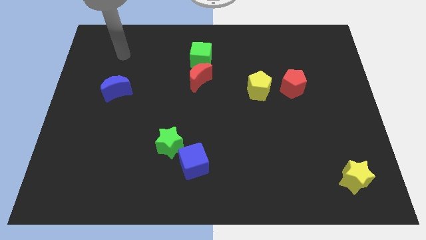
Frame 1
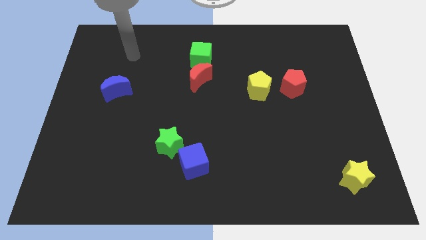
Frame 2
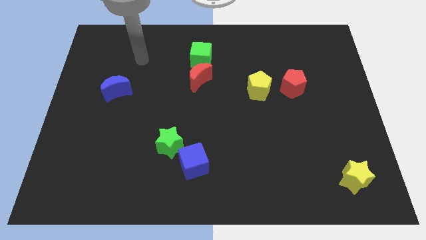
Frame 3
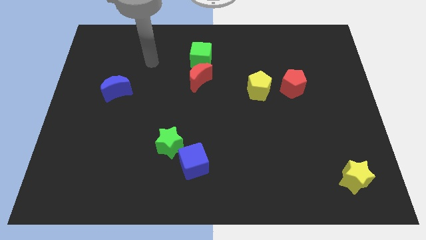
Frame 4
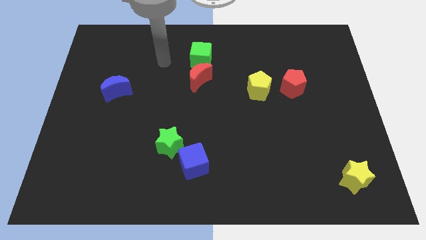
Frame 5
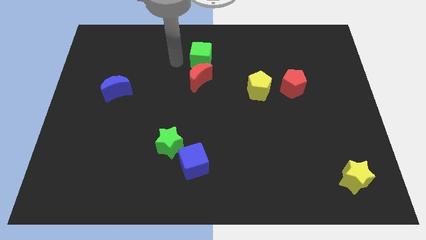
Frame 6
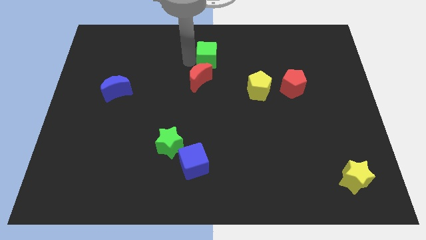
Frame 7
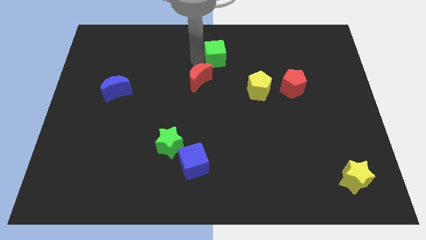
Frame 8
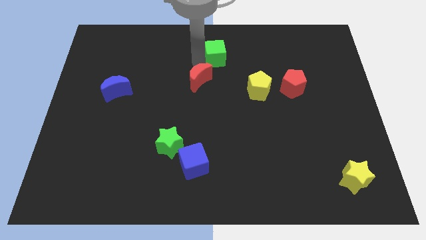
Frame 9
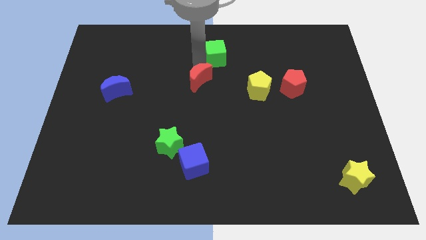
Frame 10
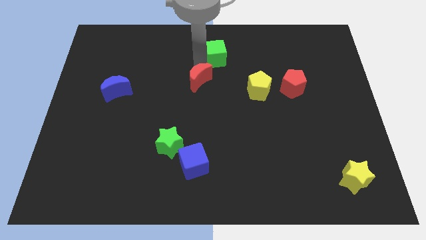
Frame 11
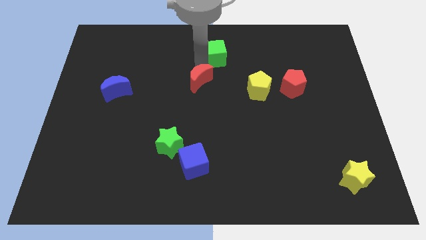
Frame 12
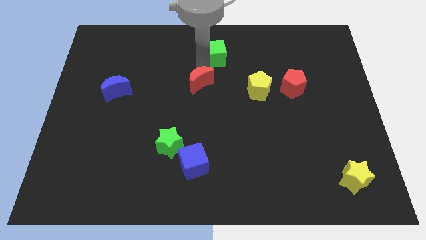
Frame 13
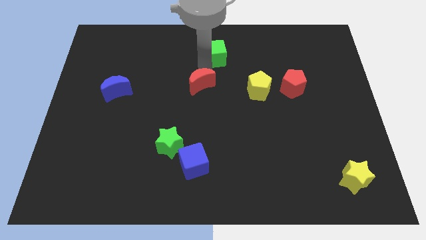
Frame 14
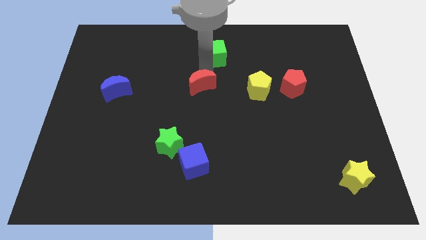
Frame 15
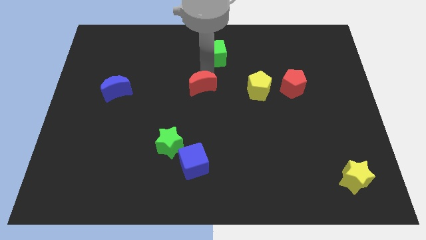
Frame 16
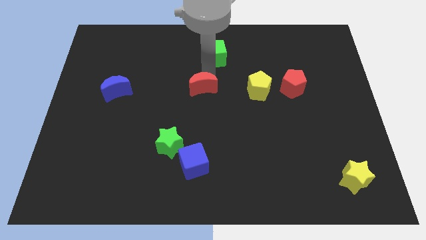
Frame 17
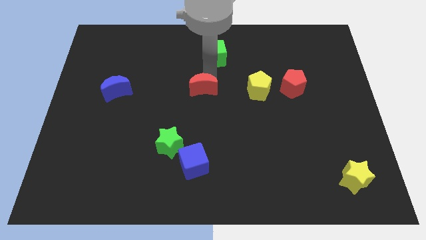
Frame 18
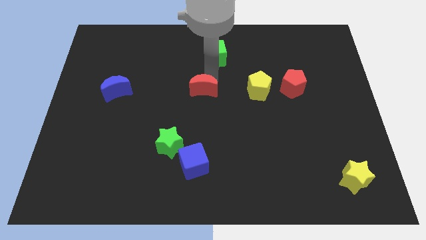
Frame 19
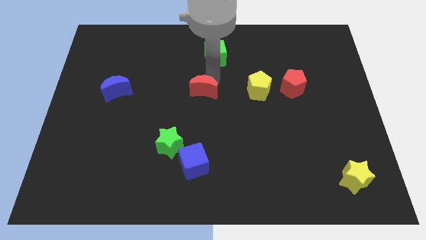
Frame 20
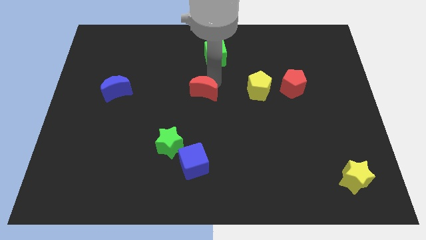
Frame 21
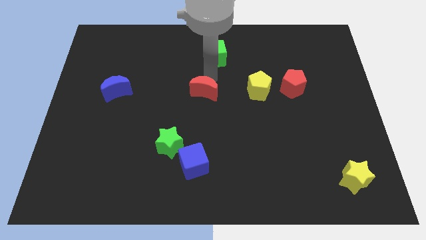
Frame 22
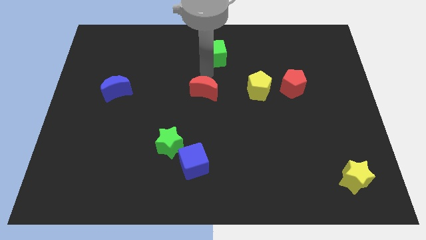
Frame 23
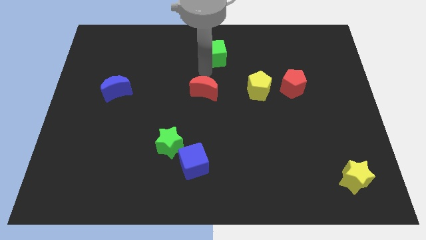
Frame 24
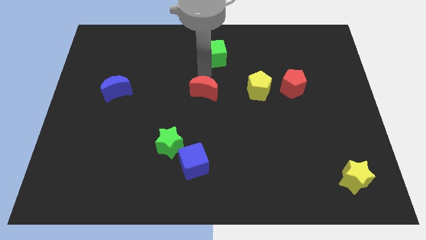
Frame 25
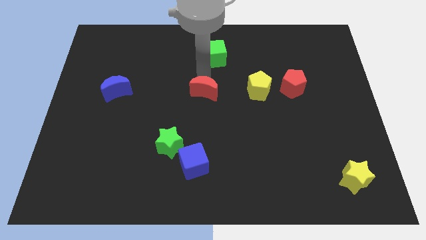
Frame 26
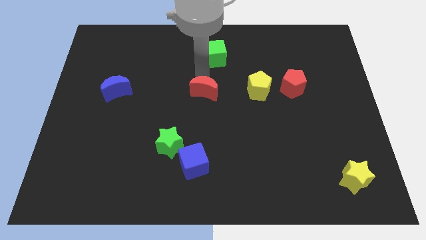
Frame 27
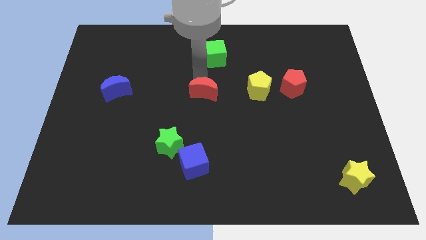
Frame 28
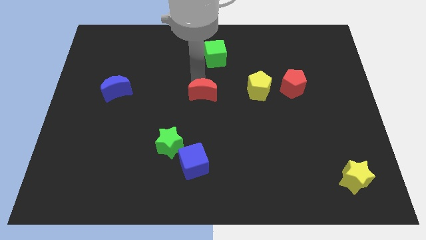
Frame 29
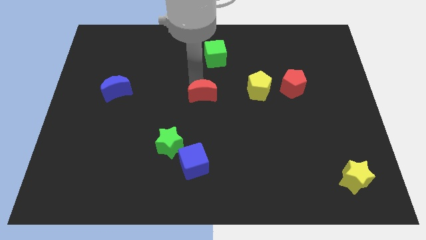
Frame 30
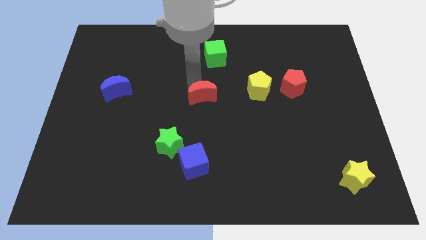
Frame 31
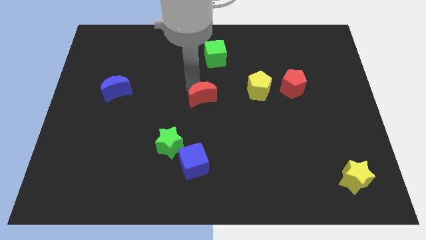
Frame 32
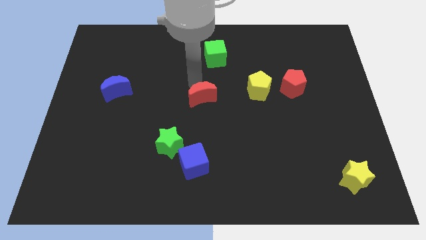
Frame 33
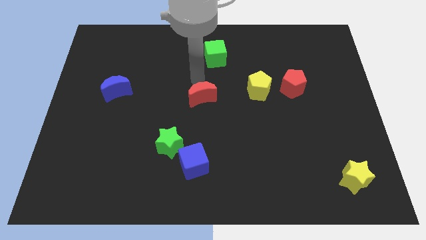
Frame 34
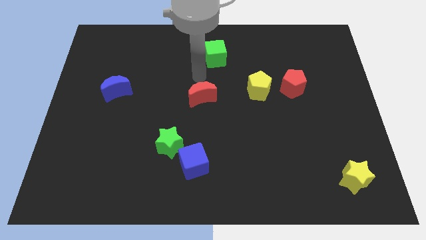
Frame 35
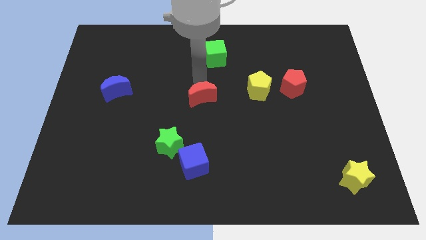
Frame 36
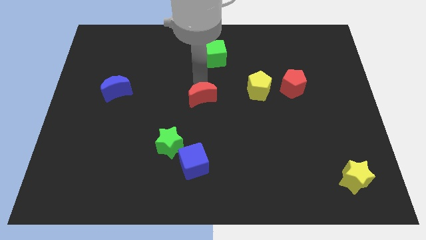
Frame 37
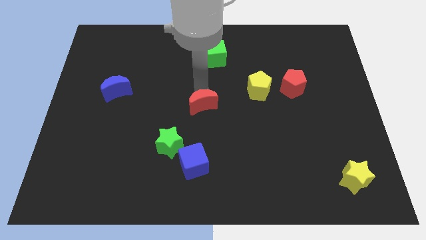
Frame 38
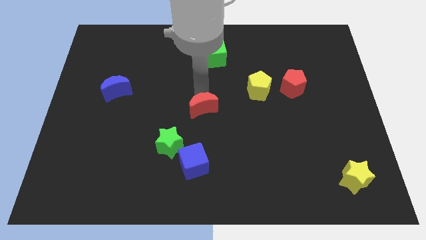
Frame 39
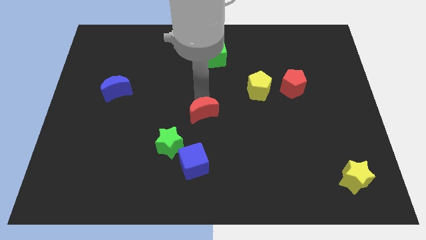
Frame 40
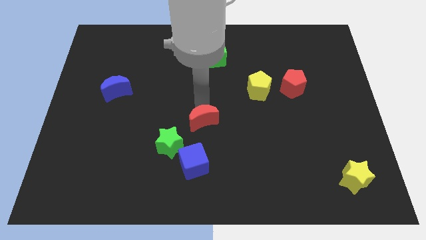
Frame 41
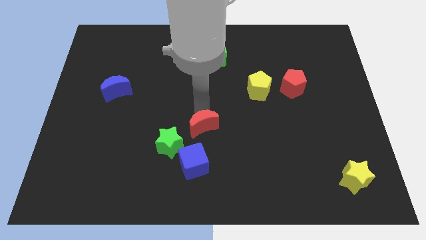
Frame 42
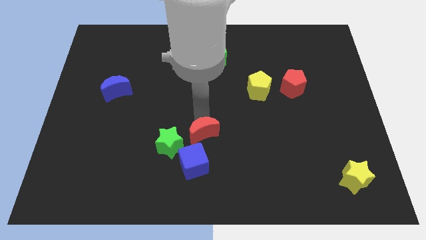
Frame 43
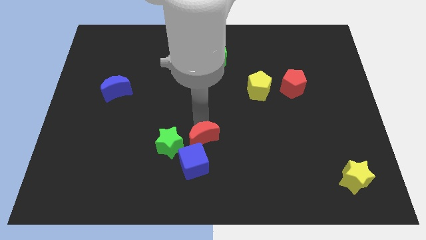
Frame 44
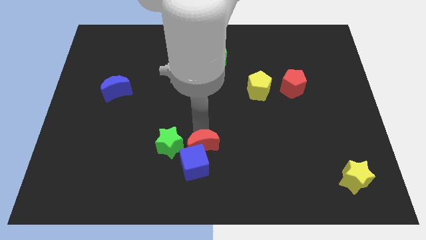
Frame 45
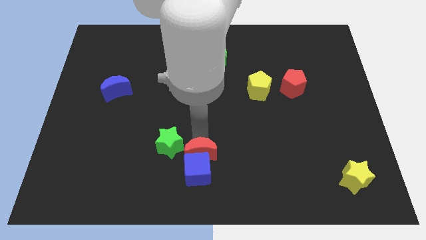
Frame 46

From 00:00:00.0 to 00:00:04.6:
move the red moon to the bottom right side of the green star

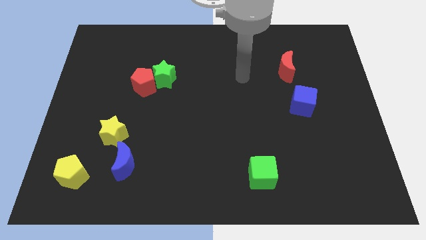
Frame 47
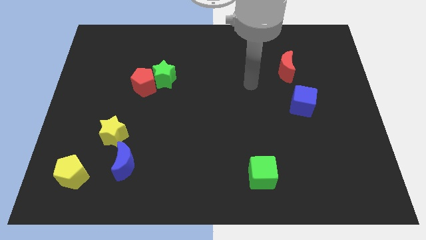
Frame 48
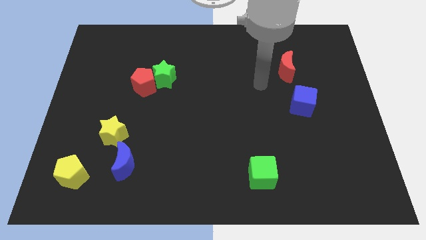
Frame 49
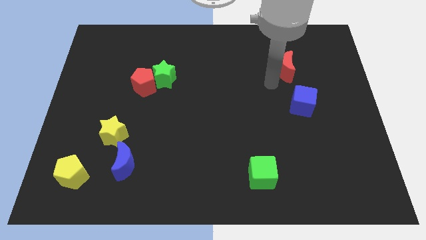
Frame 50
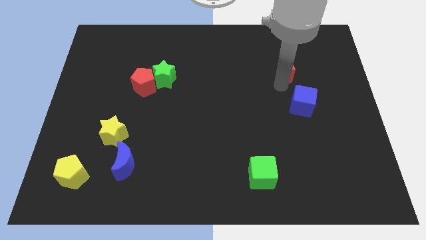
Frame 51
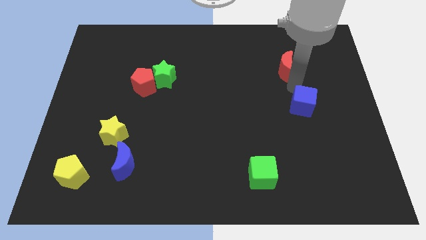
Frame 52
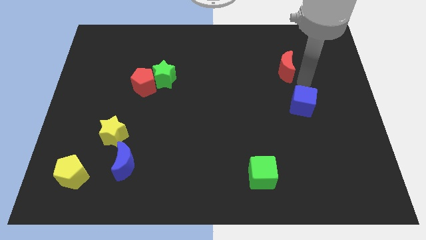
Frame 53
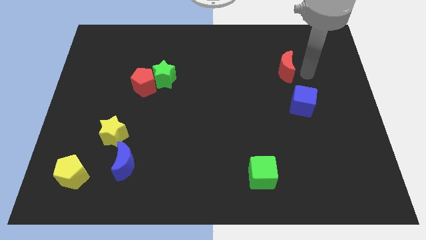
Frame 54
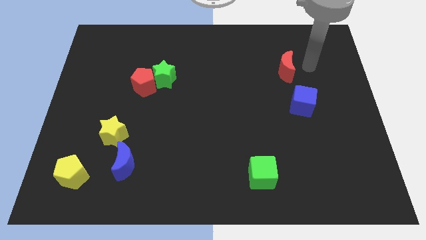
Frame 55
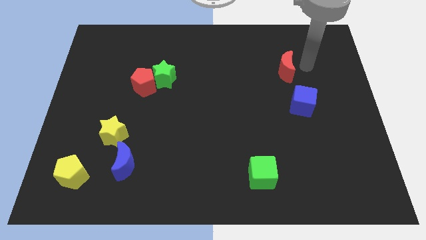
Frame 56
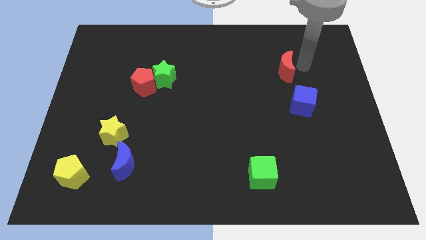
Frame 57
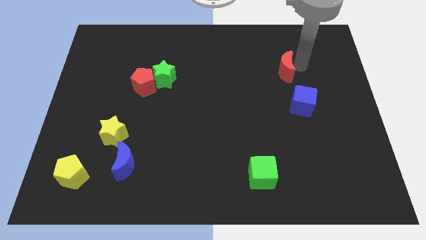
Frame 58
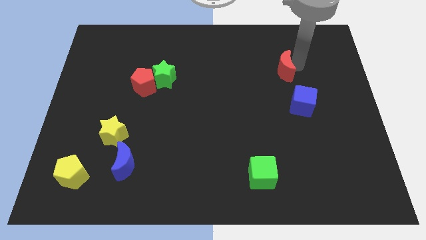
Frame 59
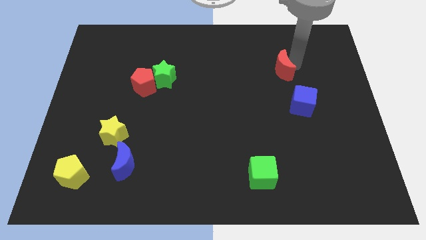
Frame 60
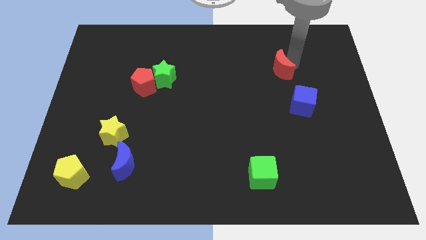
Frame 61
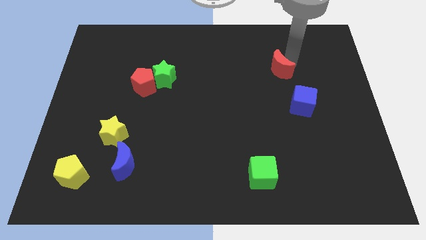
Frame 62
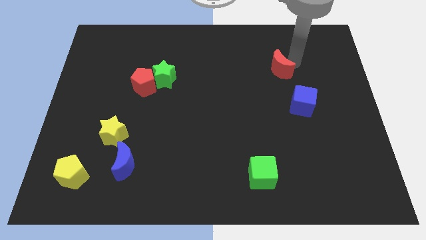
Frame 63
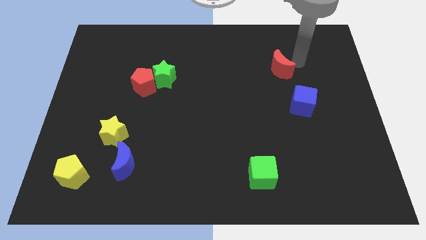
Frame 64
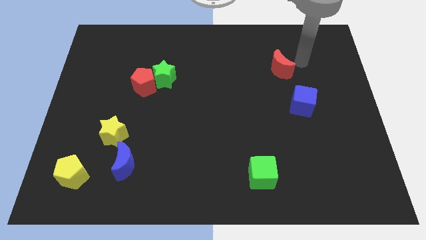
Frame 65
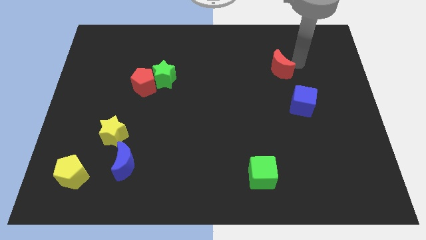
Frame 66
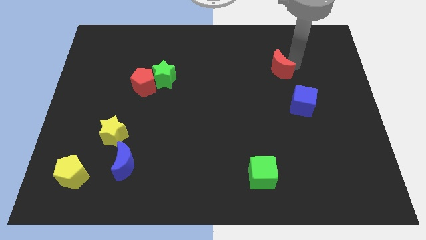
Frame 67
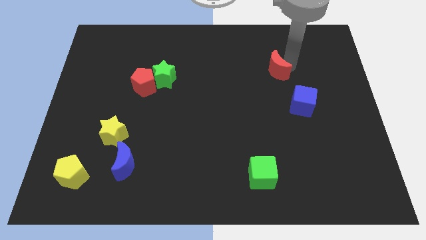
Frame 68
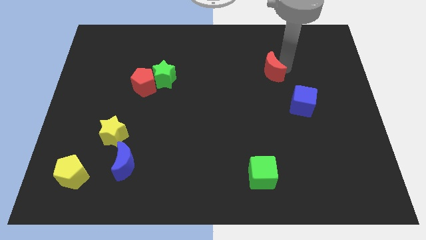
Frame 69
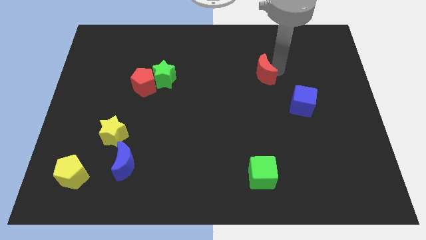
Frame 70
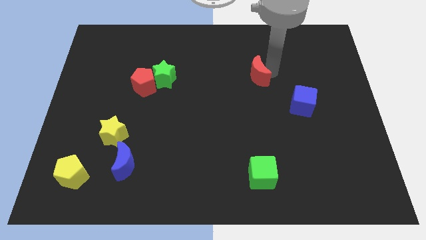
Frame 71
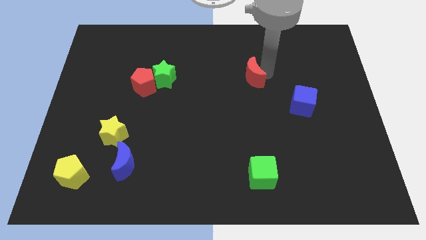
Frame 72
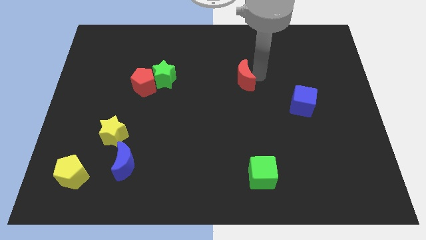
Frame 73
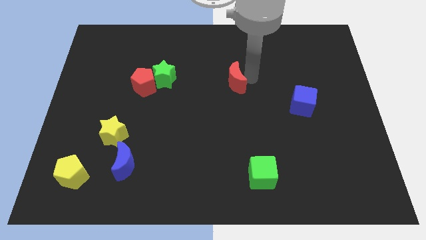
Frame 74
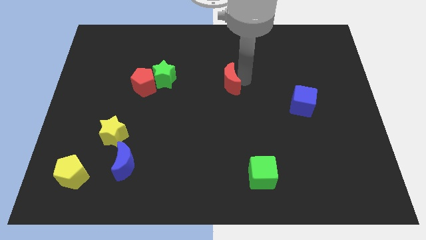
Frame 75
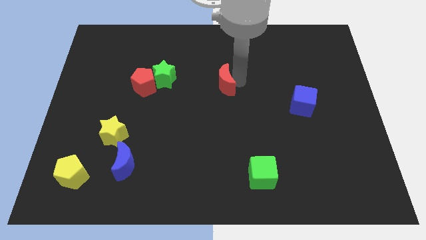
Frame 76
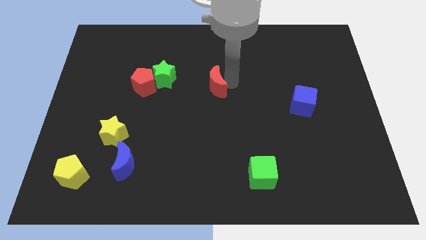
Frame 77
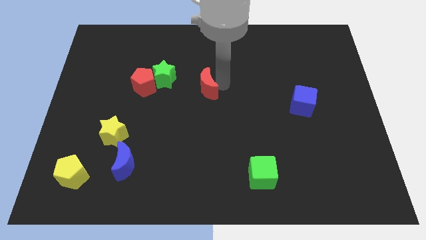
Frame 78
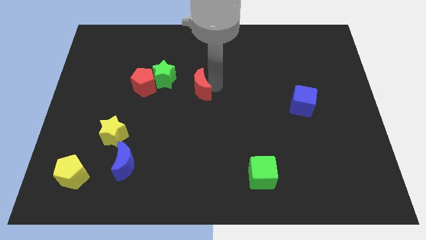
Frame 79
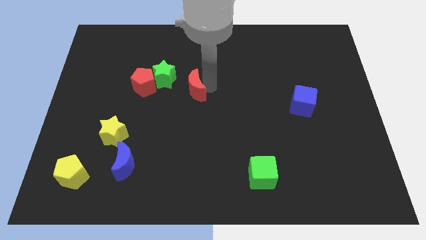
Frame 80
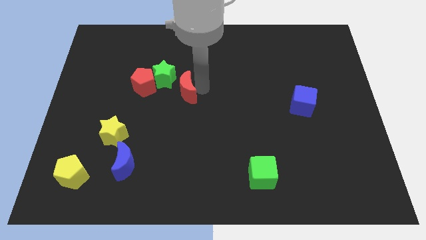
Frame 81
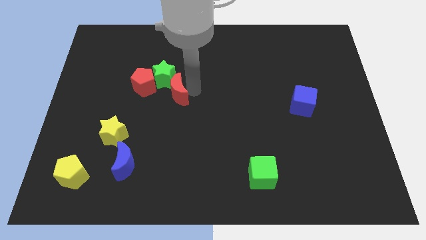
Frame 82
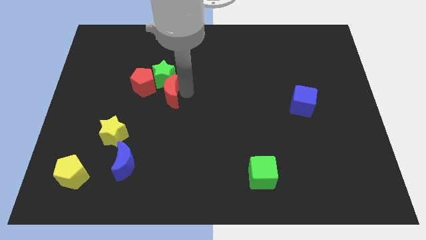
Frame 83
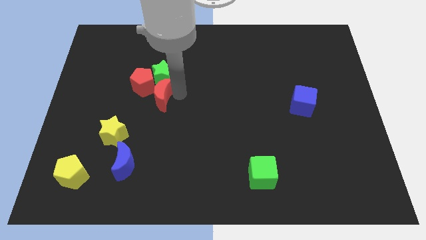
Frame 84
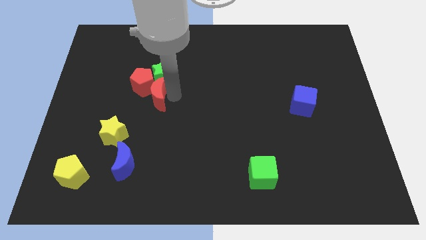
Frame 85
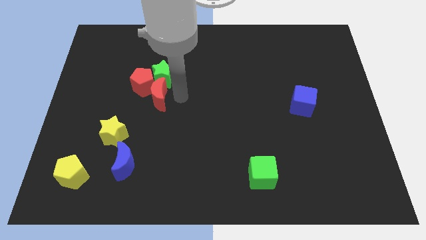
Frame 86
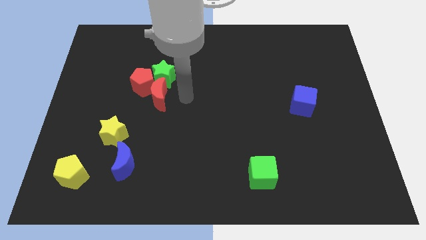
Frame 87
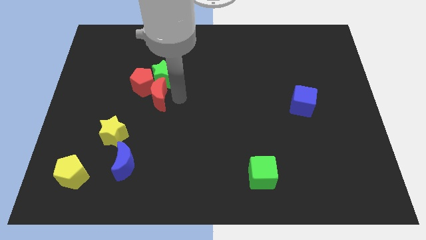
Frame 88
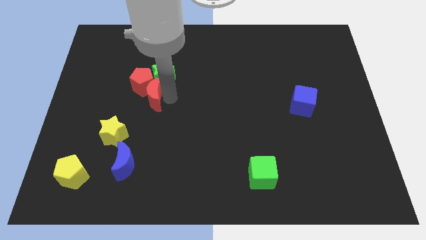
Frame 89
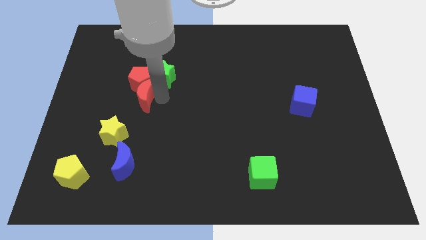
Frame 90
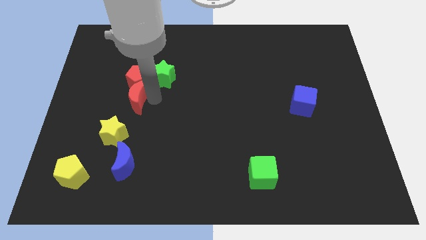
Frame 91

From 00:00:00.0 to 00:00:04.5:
push the red moon to the top of the yellow star
